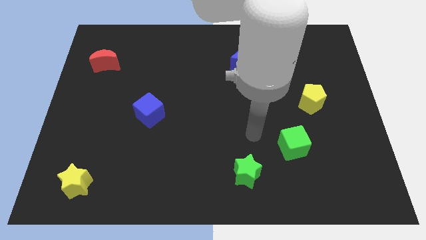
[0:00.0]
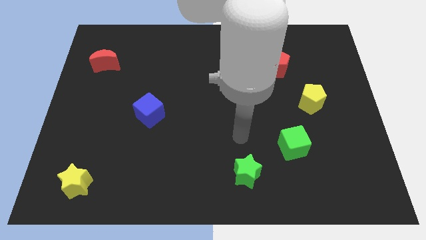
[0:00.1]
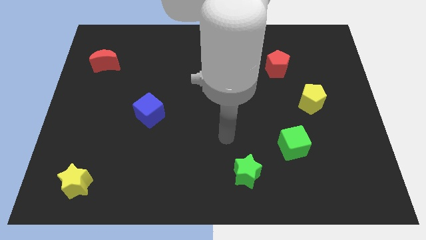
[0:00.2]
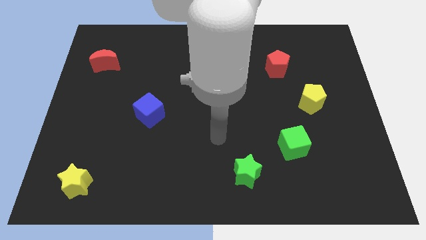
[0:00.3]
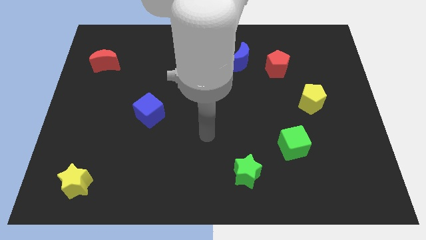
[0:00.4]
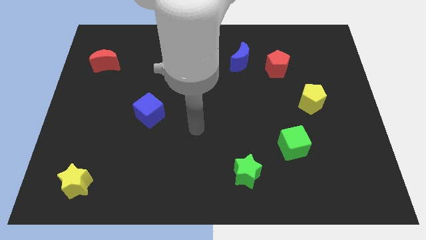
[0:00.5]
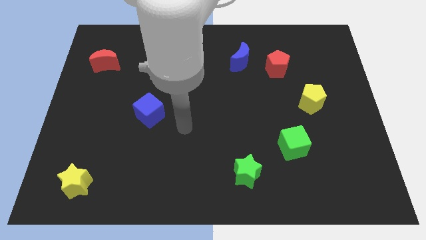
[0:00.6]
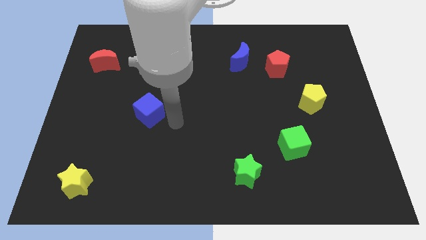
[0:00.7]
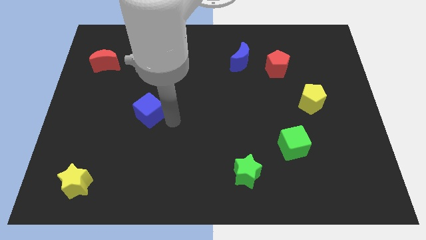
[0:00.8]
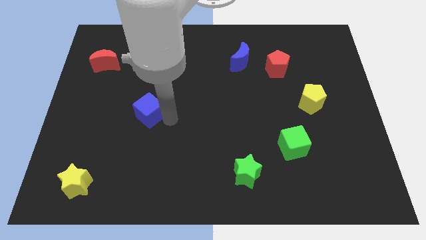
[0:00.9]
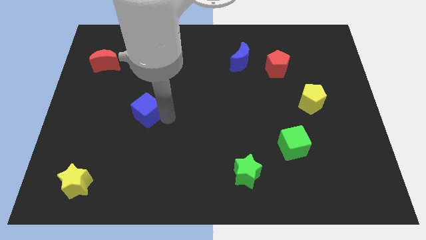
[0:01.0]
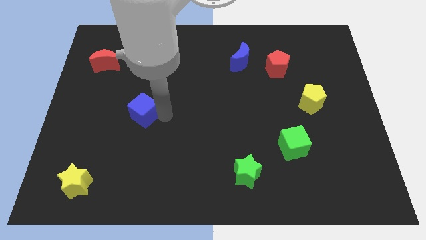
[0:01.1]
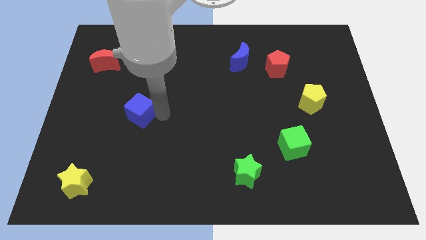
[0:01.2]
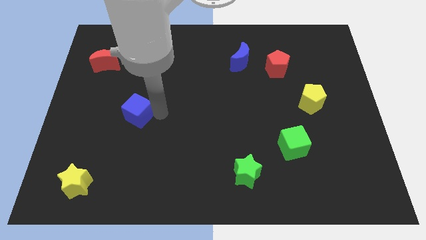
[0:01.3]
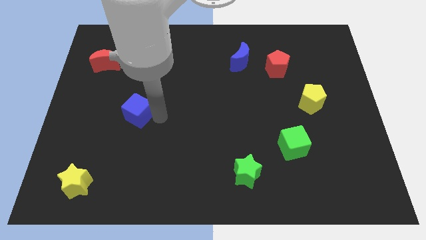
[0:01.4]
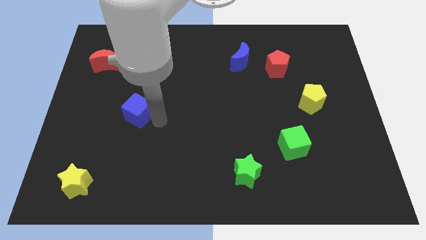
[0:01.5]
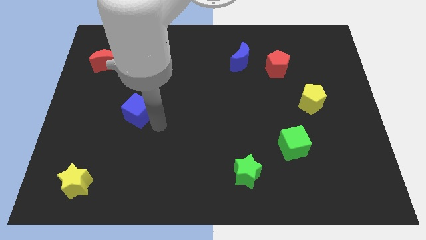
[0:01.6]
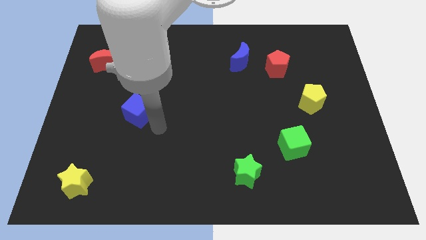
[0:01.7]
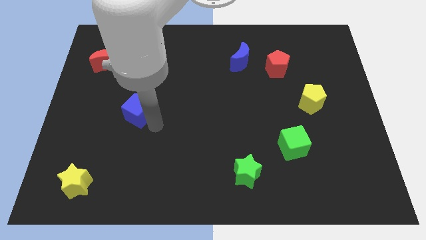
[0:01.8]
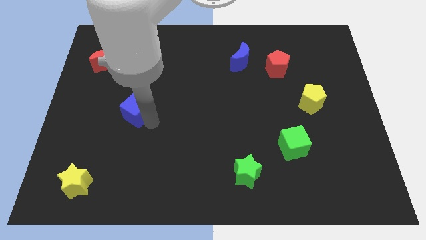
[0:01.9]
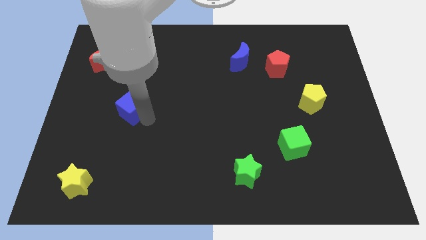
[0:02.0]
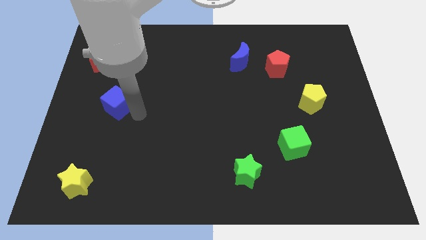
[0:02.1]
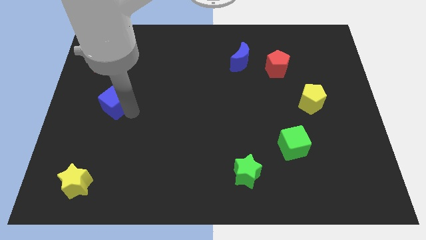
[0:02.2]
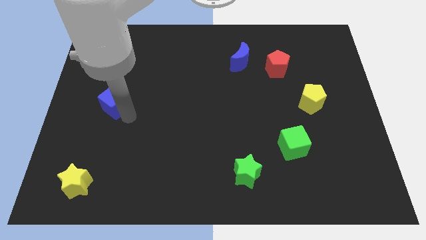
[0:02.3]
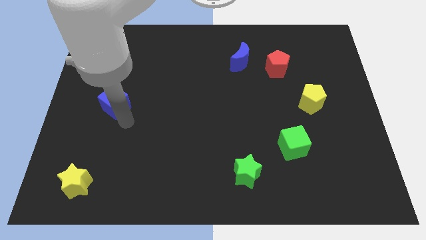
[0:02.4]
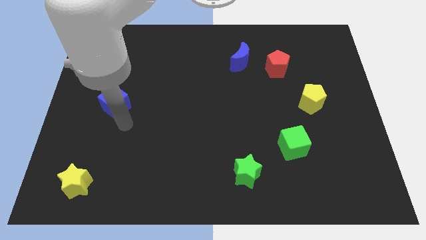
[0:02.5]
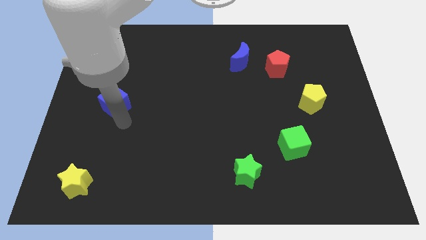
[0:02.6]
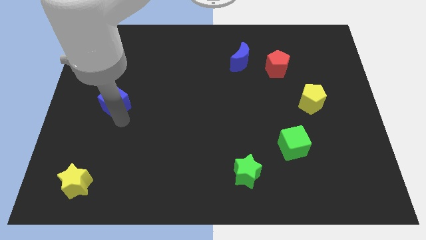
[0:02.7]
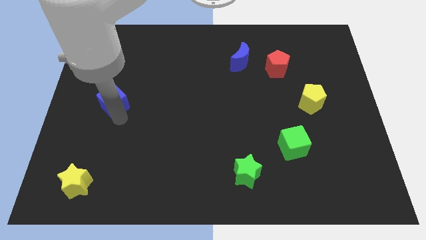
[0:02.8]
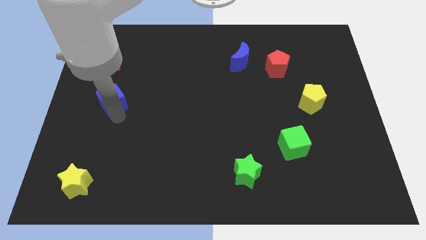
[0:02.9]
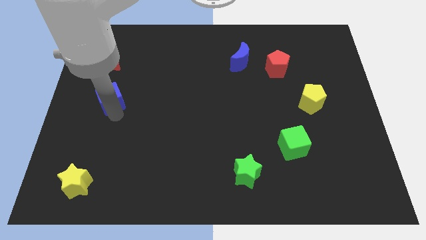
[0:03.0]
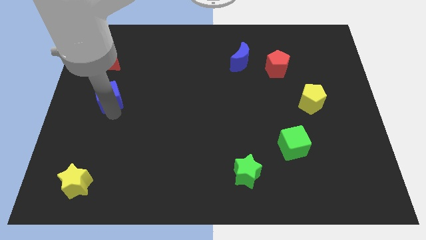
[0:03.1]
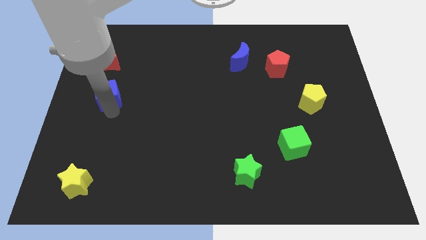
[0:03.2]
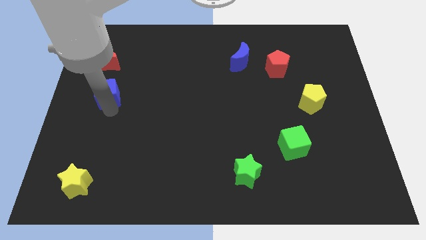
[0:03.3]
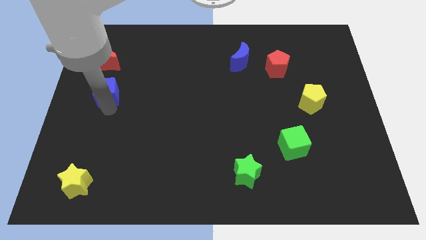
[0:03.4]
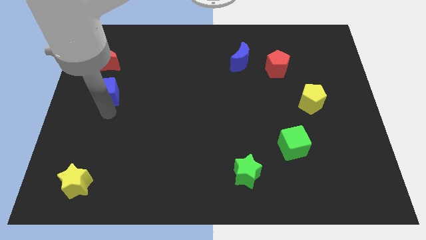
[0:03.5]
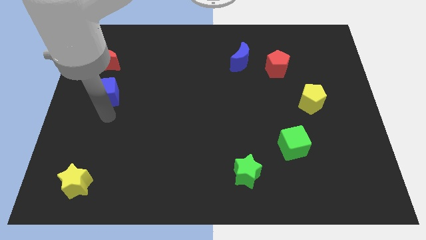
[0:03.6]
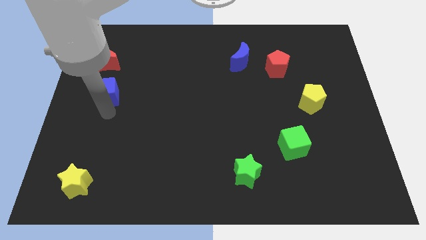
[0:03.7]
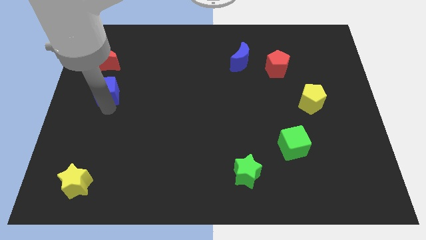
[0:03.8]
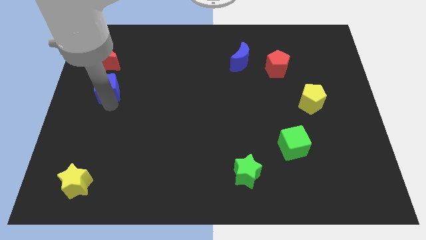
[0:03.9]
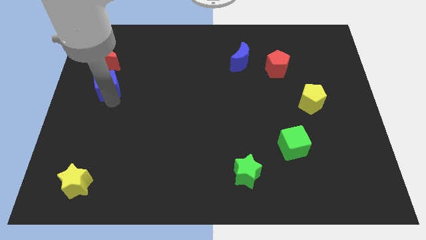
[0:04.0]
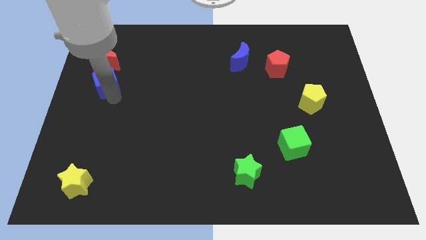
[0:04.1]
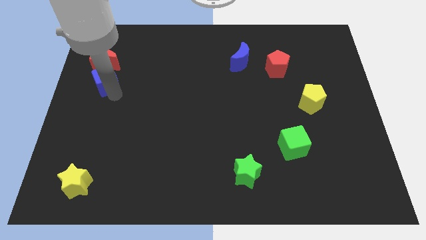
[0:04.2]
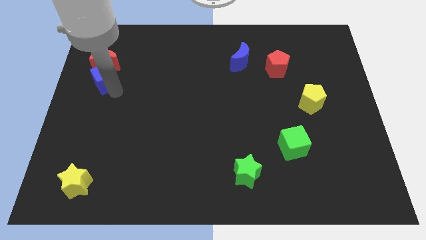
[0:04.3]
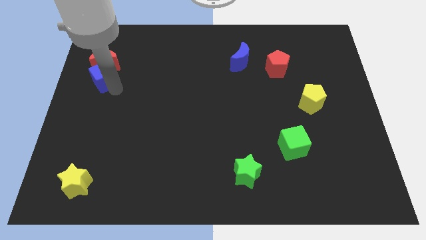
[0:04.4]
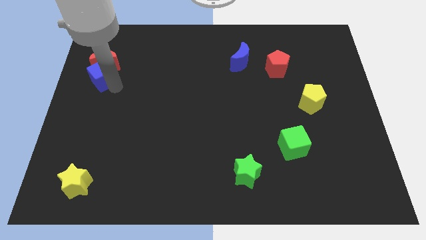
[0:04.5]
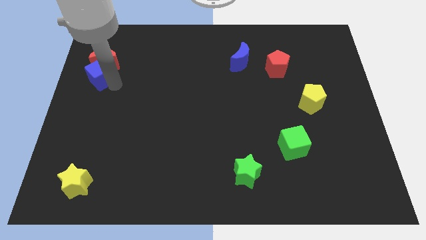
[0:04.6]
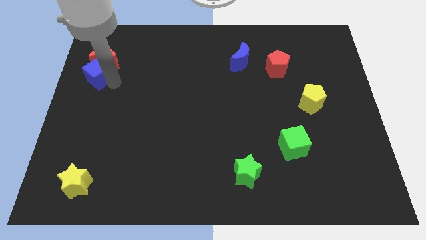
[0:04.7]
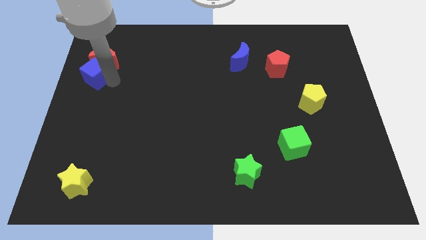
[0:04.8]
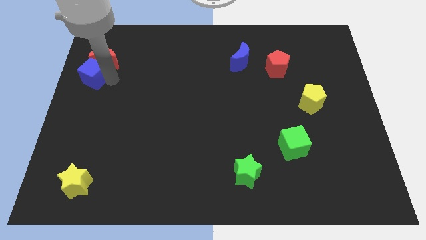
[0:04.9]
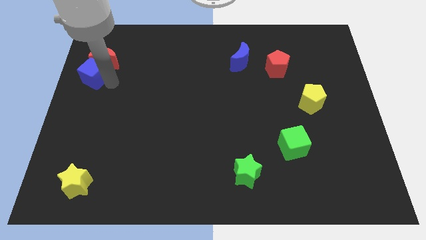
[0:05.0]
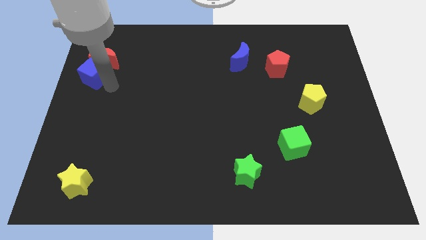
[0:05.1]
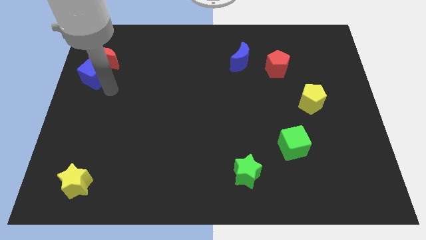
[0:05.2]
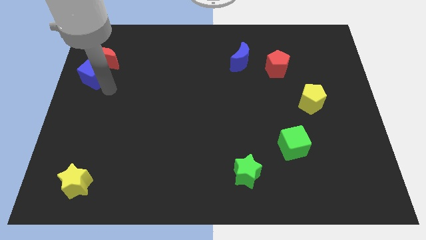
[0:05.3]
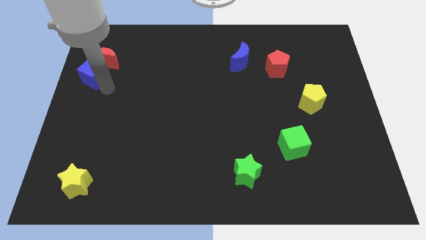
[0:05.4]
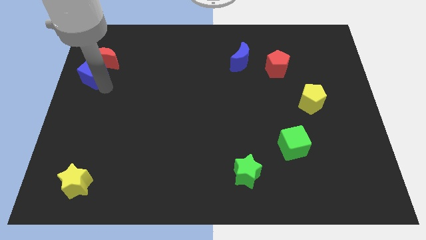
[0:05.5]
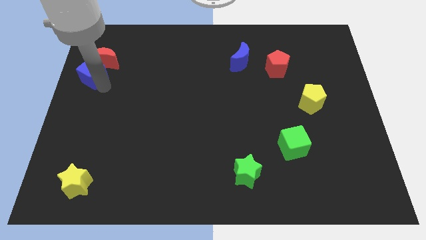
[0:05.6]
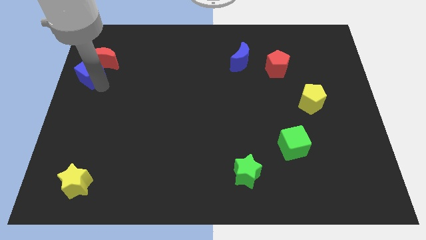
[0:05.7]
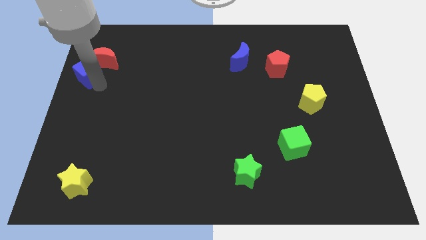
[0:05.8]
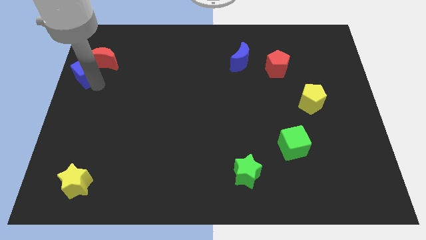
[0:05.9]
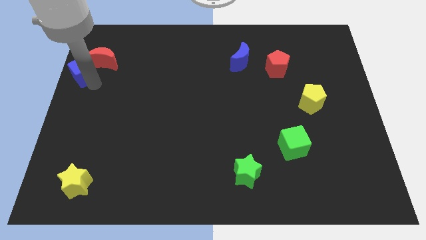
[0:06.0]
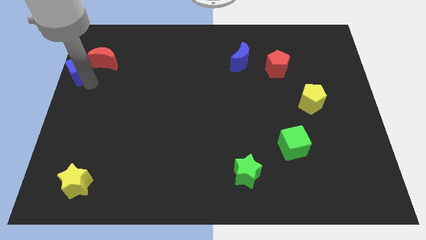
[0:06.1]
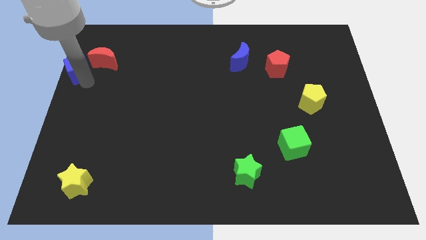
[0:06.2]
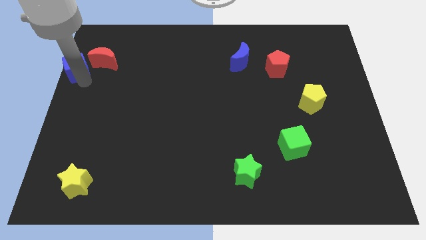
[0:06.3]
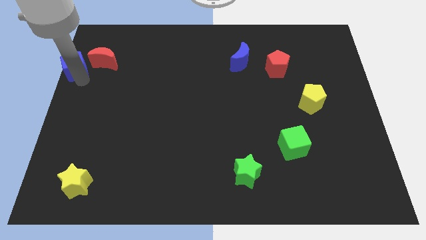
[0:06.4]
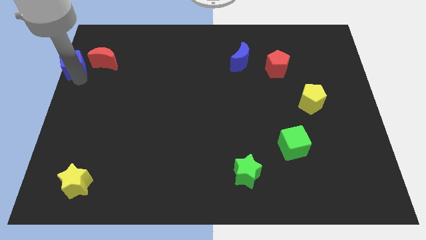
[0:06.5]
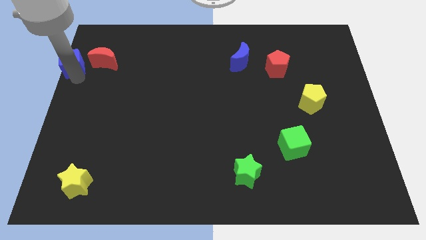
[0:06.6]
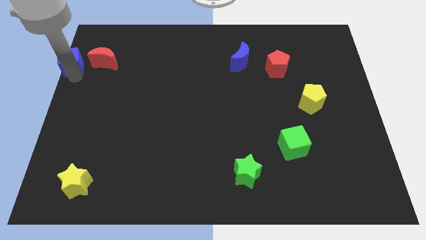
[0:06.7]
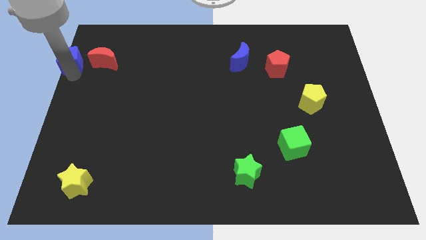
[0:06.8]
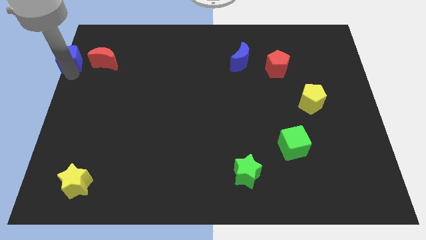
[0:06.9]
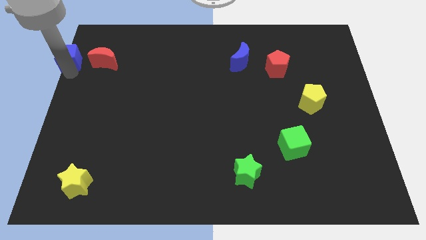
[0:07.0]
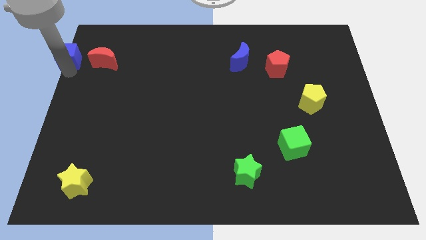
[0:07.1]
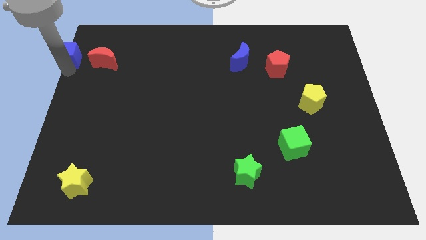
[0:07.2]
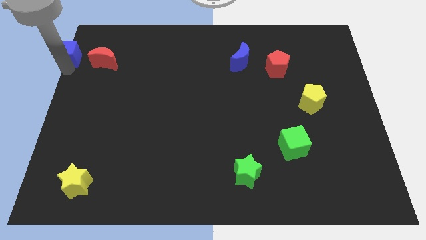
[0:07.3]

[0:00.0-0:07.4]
slide the blue cube to the top left
